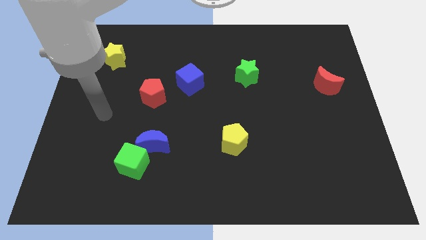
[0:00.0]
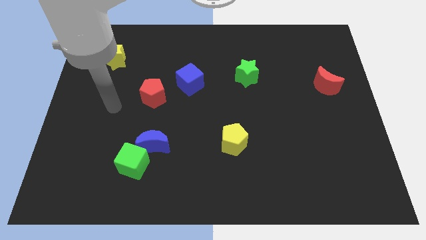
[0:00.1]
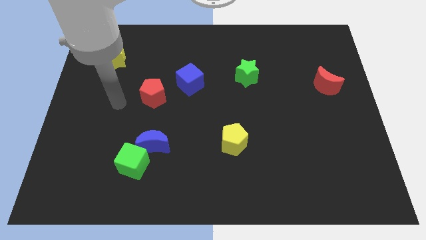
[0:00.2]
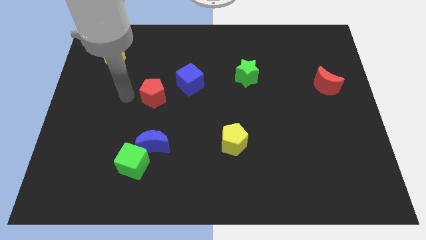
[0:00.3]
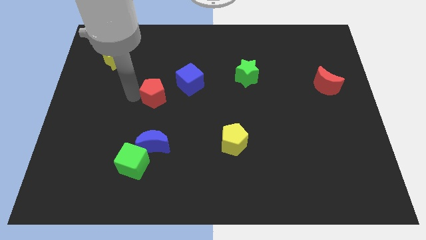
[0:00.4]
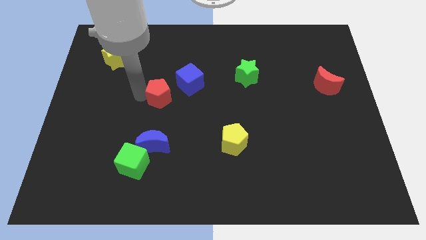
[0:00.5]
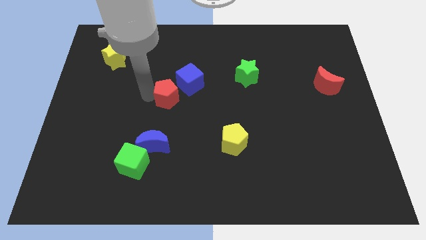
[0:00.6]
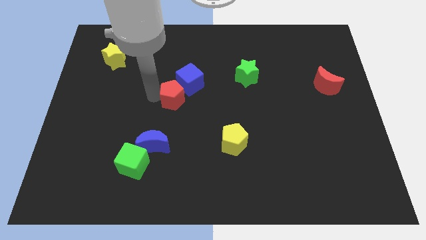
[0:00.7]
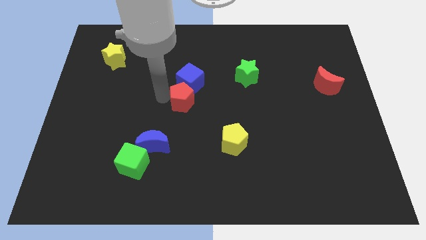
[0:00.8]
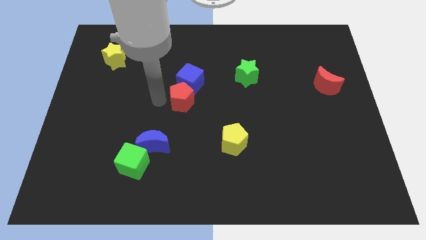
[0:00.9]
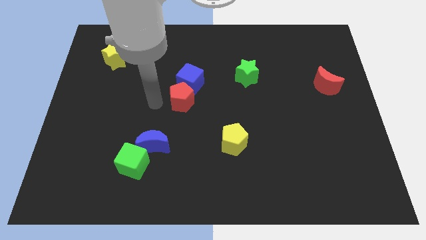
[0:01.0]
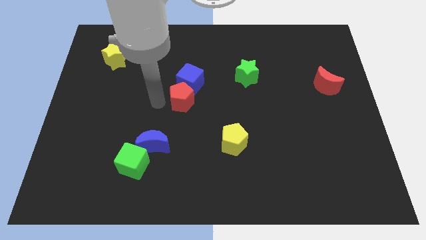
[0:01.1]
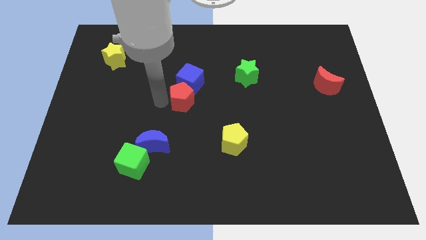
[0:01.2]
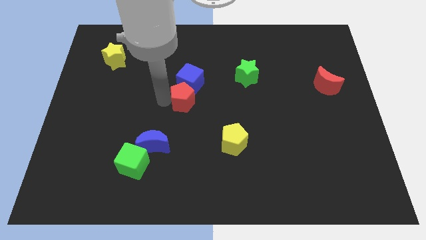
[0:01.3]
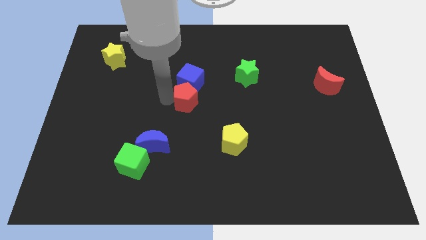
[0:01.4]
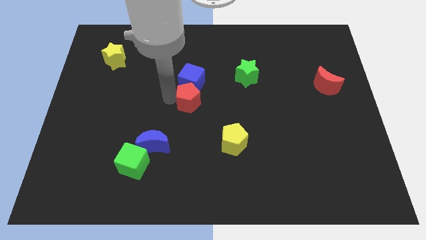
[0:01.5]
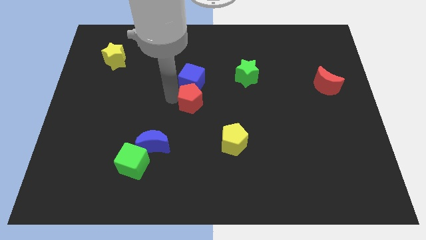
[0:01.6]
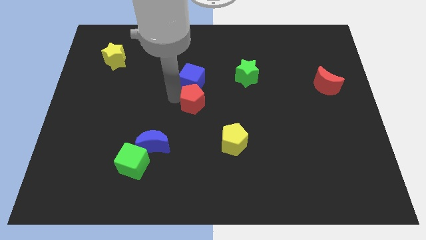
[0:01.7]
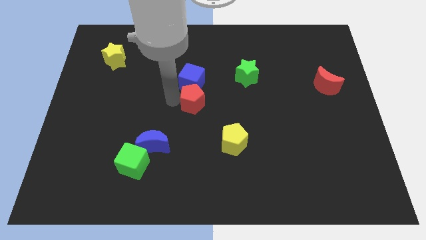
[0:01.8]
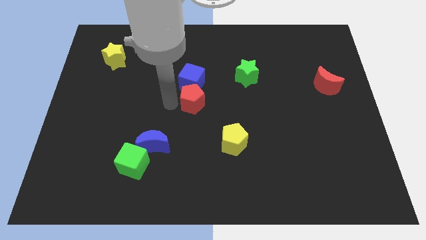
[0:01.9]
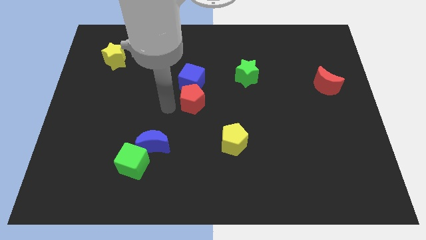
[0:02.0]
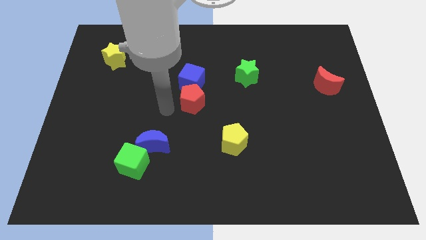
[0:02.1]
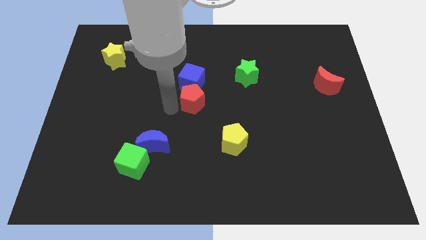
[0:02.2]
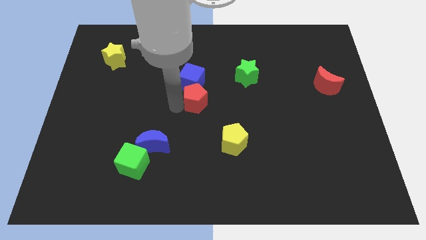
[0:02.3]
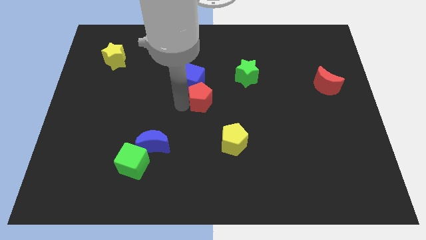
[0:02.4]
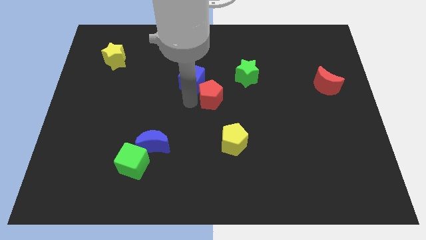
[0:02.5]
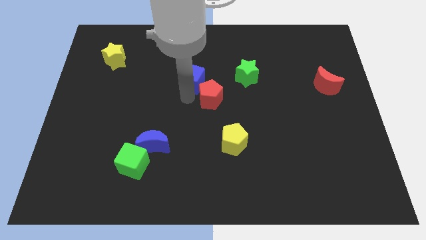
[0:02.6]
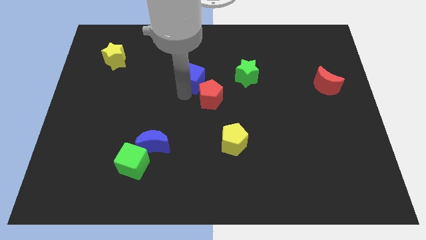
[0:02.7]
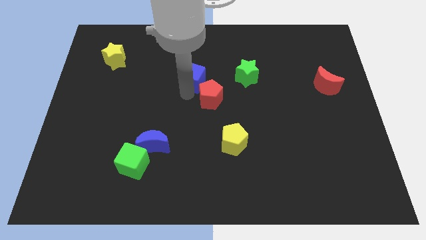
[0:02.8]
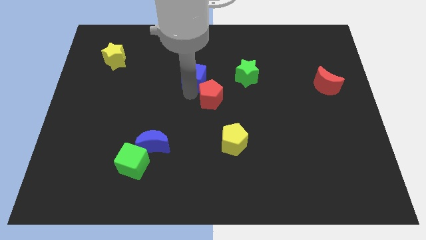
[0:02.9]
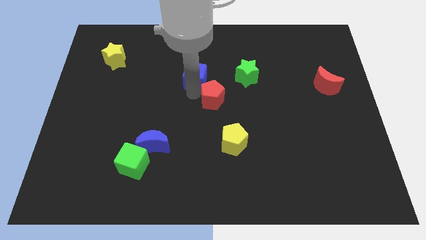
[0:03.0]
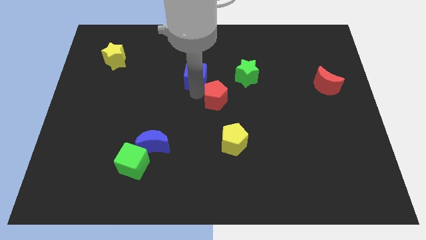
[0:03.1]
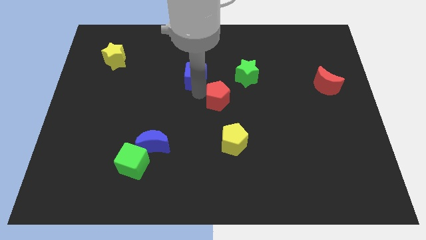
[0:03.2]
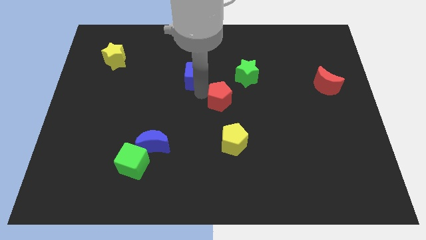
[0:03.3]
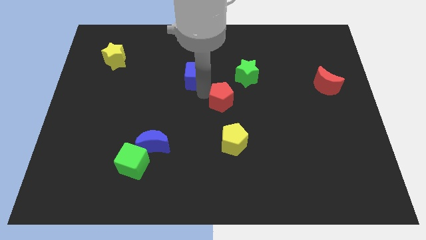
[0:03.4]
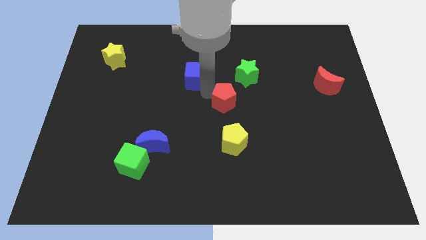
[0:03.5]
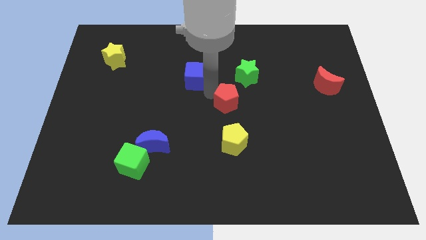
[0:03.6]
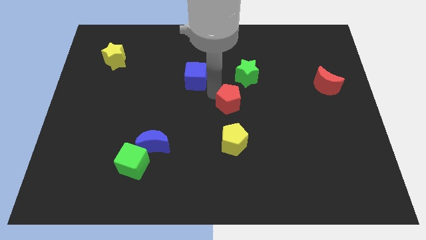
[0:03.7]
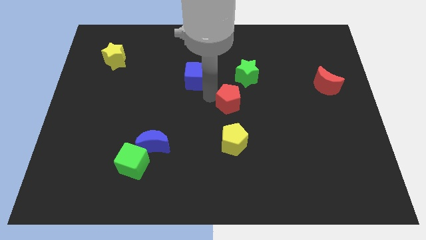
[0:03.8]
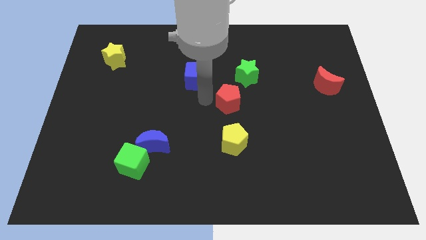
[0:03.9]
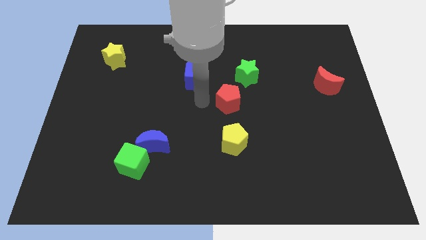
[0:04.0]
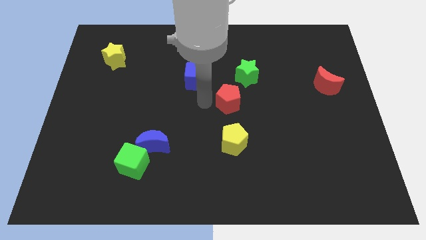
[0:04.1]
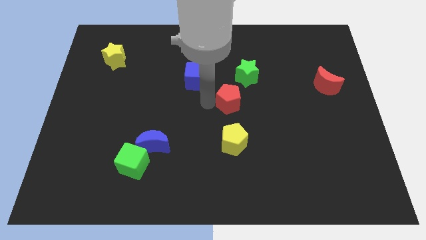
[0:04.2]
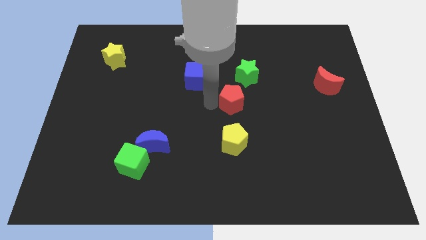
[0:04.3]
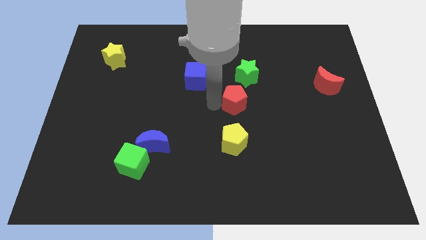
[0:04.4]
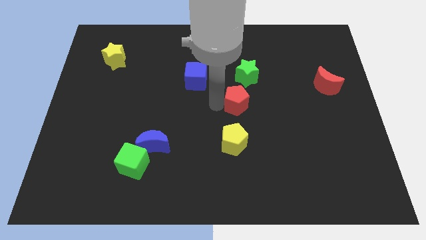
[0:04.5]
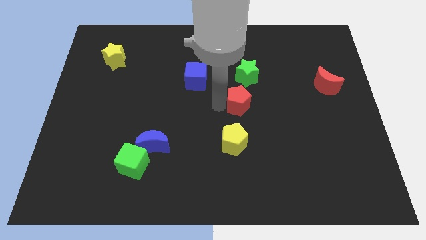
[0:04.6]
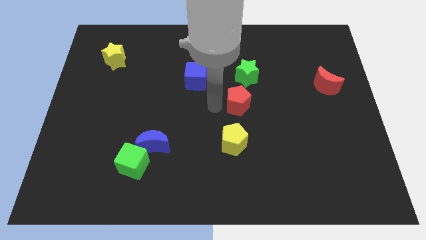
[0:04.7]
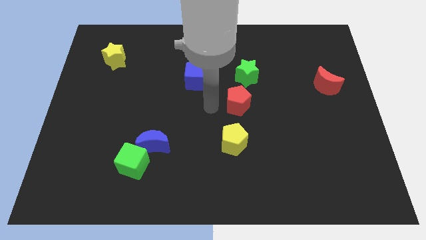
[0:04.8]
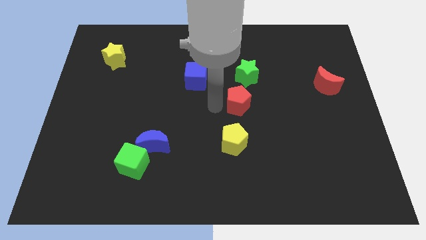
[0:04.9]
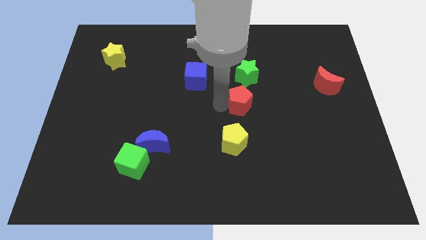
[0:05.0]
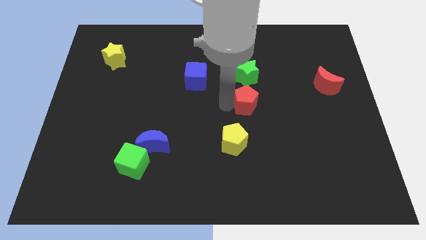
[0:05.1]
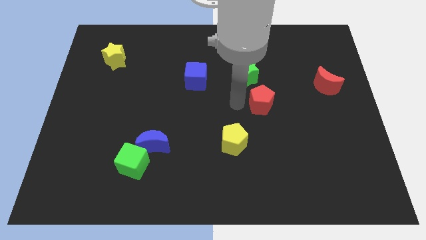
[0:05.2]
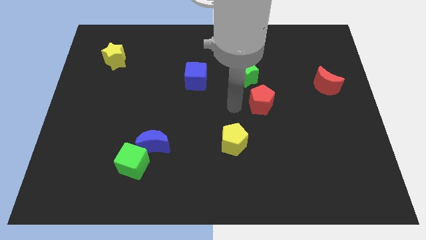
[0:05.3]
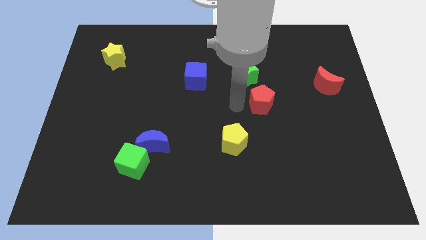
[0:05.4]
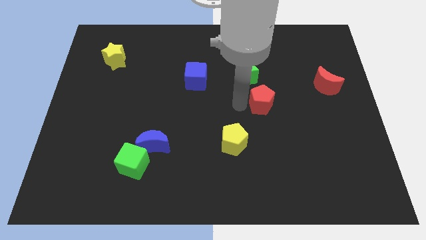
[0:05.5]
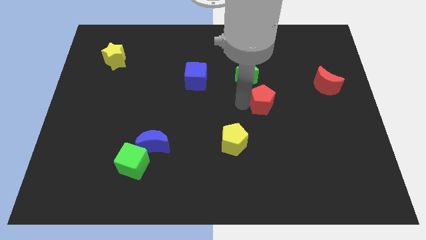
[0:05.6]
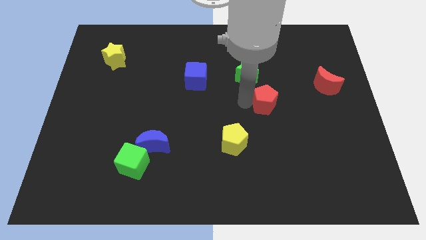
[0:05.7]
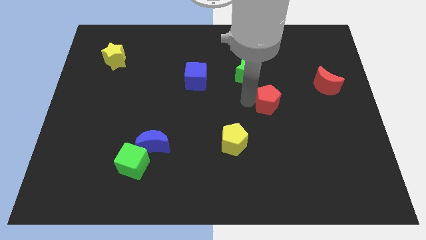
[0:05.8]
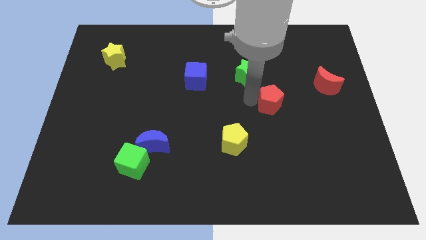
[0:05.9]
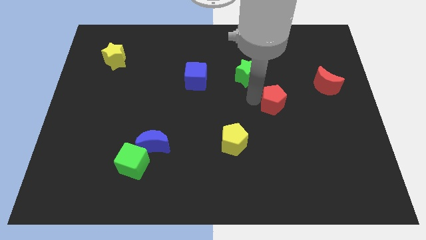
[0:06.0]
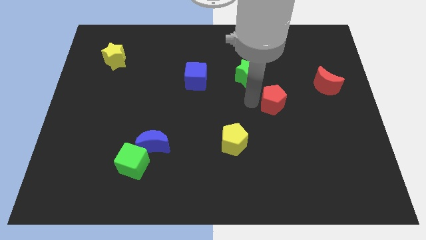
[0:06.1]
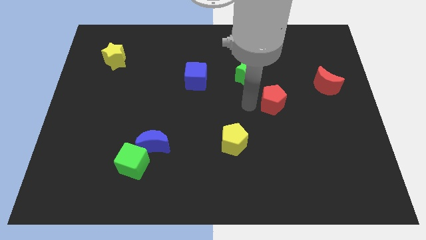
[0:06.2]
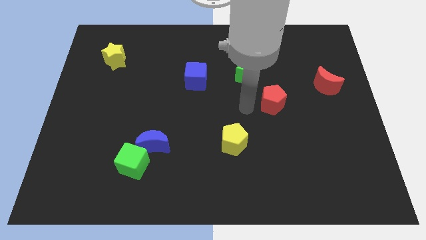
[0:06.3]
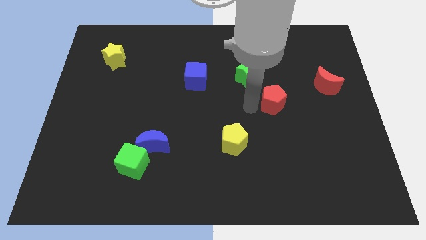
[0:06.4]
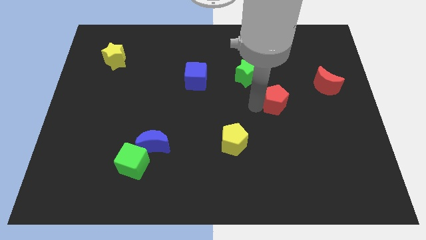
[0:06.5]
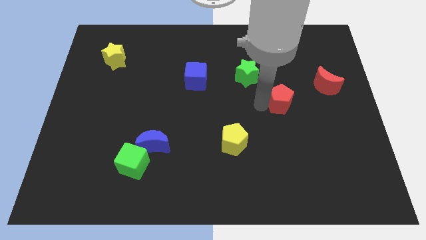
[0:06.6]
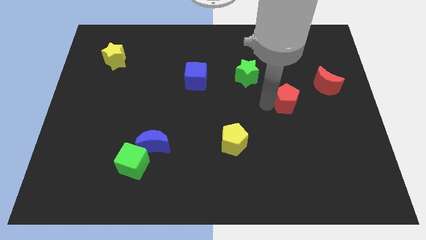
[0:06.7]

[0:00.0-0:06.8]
move the red pentagon to the bottom left of the red moon

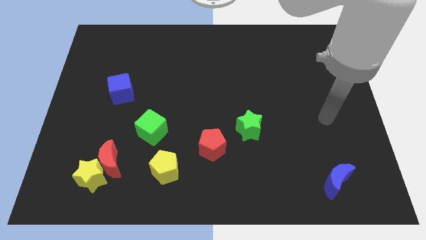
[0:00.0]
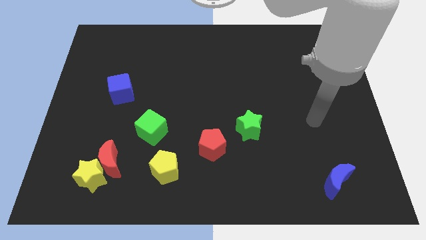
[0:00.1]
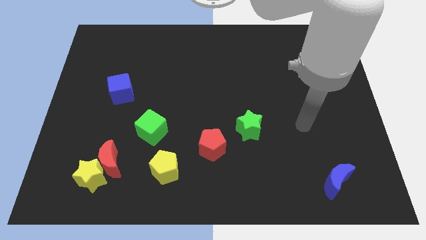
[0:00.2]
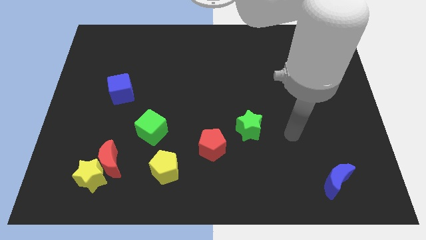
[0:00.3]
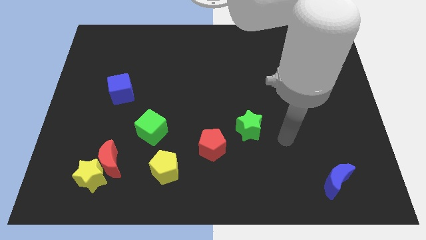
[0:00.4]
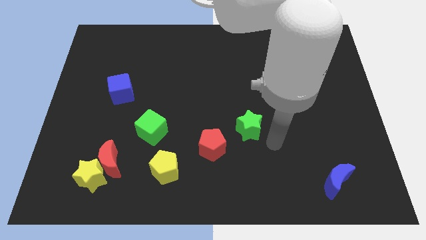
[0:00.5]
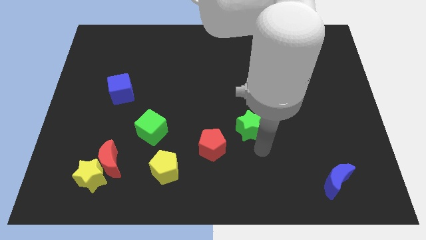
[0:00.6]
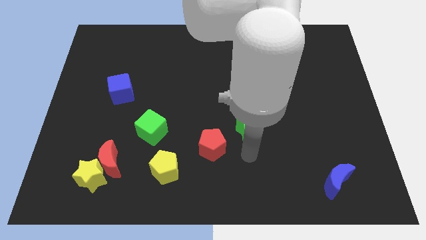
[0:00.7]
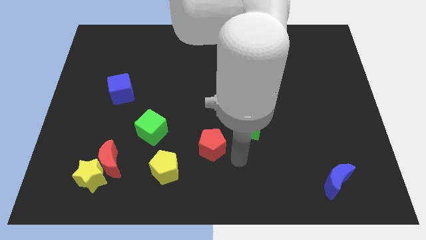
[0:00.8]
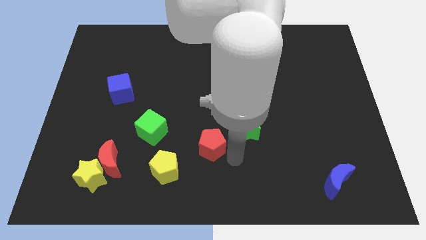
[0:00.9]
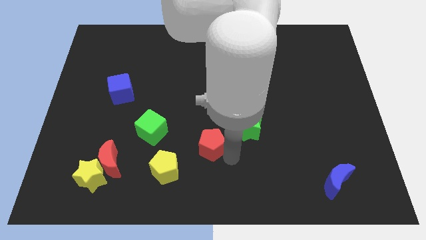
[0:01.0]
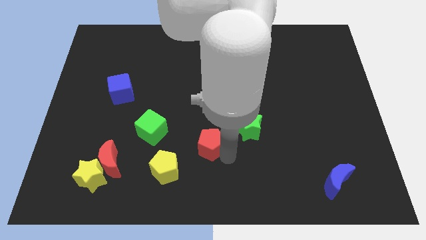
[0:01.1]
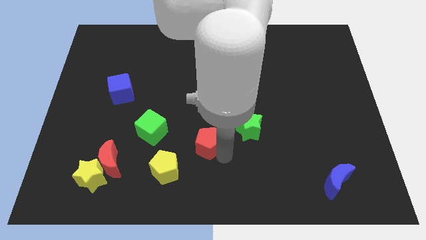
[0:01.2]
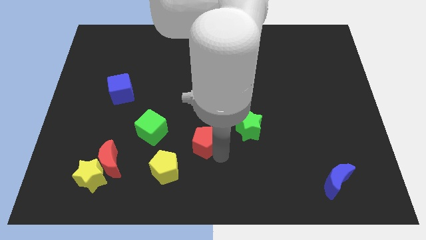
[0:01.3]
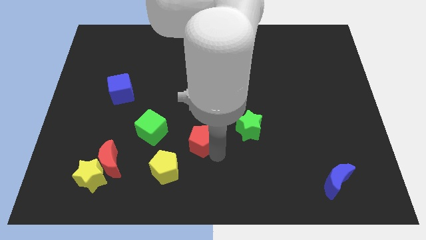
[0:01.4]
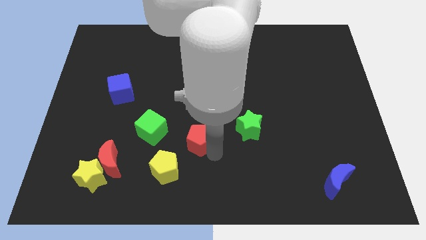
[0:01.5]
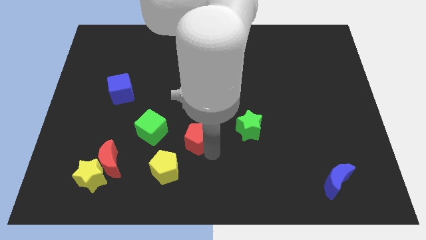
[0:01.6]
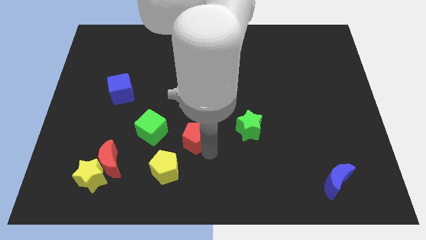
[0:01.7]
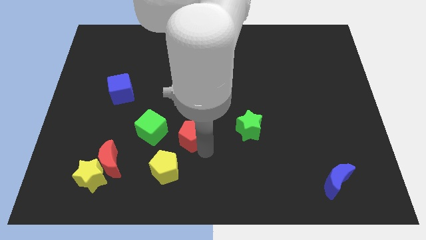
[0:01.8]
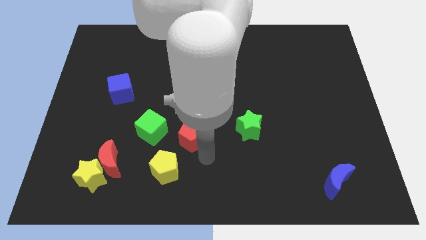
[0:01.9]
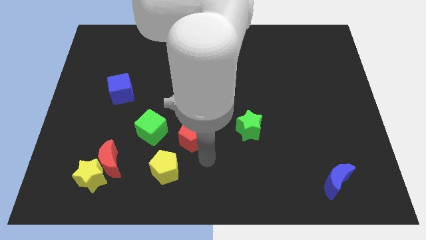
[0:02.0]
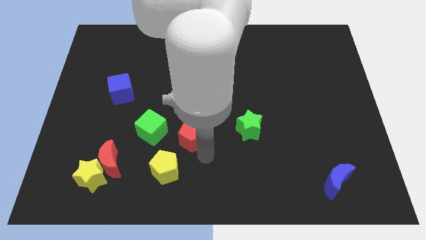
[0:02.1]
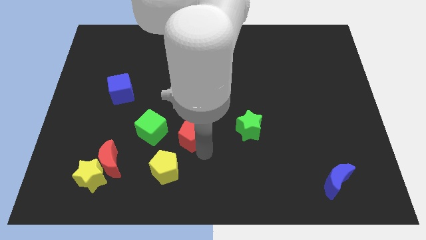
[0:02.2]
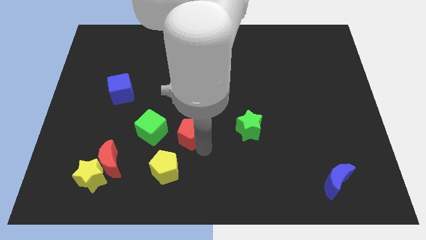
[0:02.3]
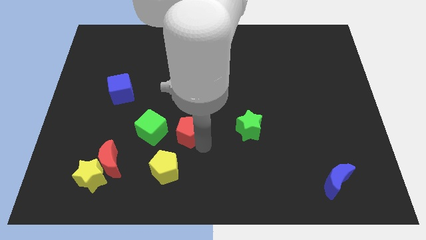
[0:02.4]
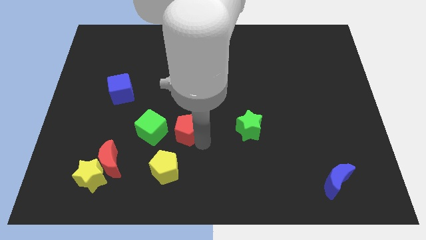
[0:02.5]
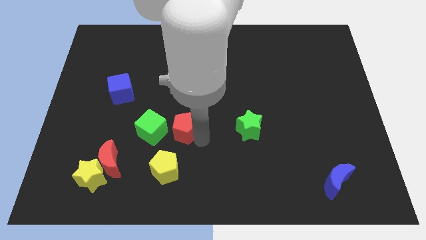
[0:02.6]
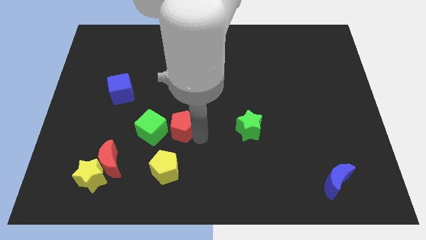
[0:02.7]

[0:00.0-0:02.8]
slide the red pentagon diagonally up and to the right of the green cube
